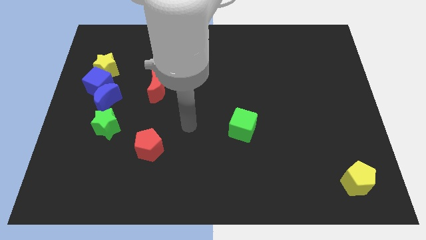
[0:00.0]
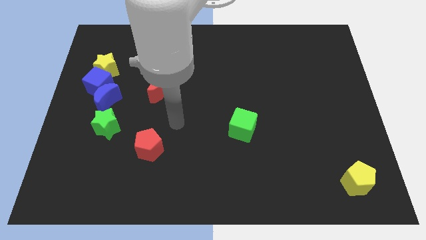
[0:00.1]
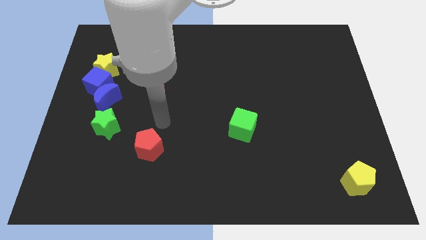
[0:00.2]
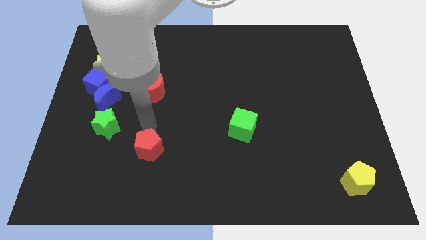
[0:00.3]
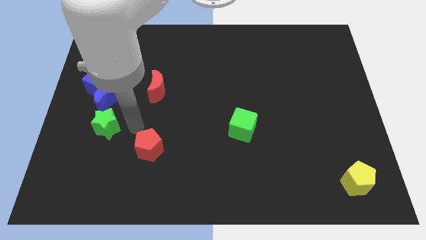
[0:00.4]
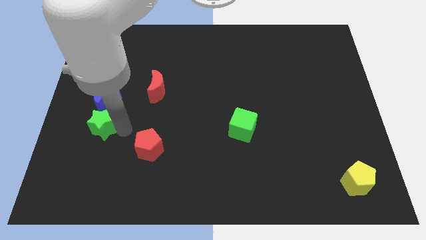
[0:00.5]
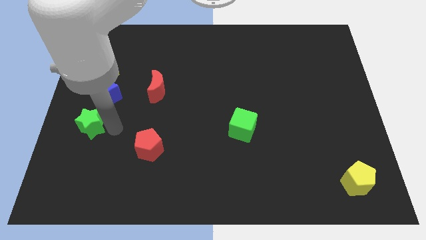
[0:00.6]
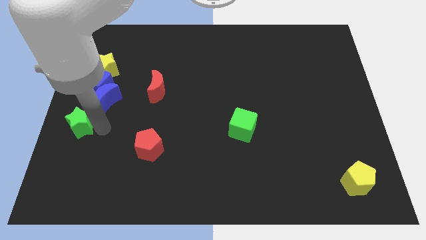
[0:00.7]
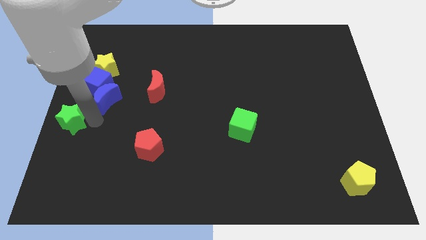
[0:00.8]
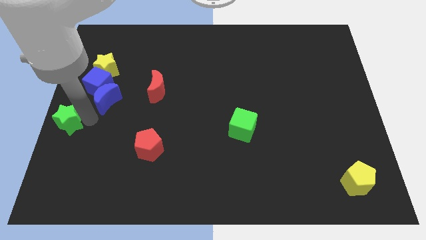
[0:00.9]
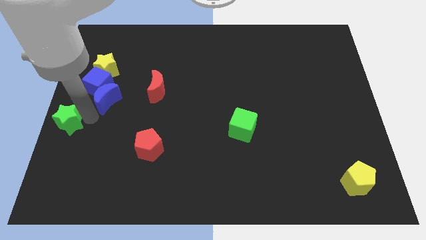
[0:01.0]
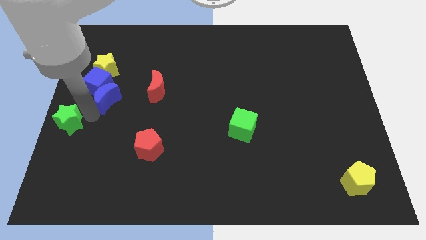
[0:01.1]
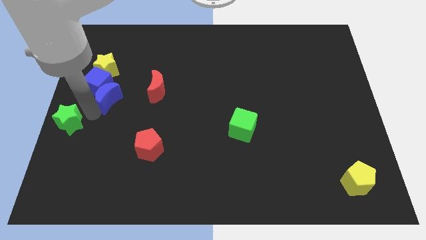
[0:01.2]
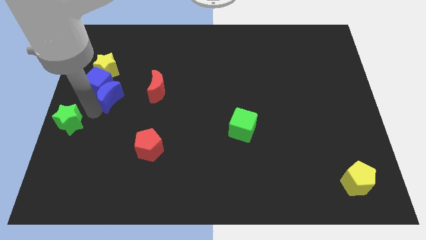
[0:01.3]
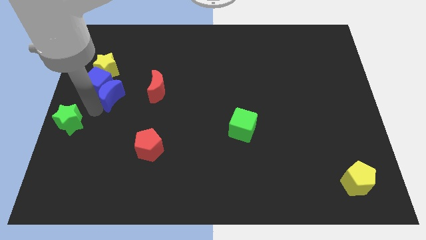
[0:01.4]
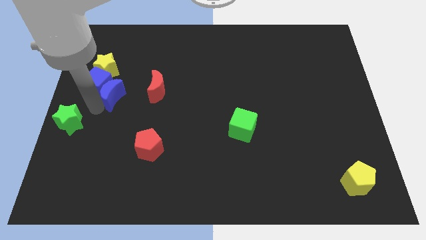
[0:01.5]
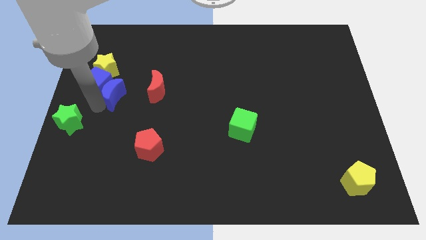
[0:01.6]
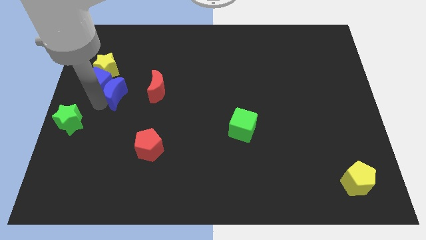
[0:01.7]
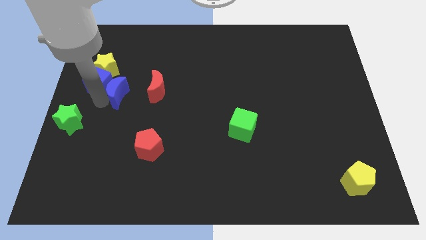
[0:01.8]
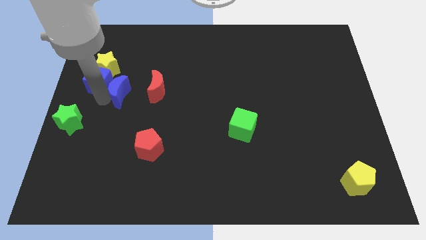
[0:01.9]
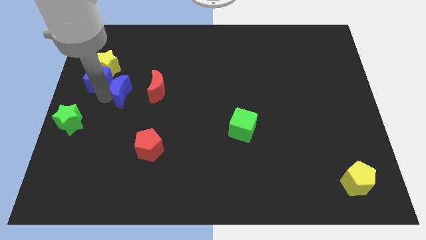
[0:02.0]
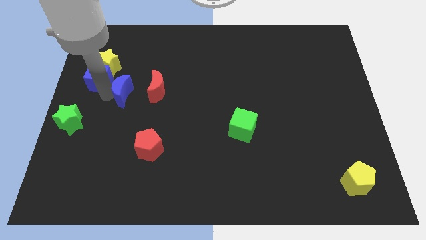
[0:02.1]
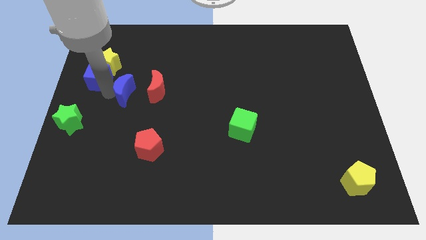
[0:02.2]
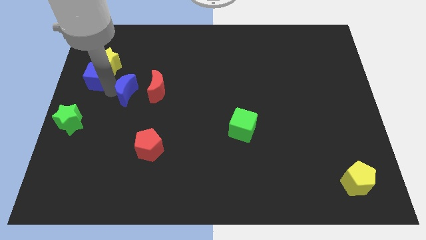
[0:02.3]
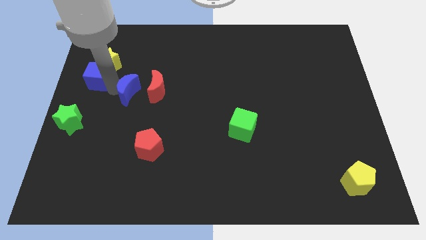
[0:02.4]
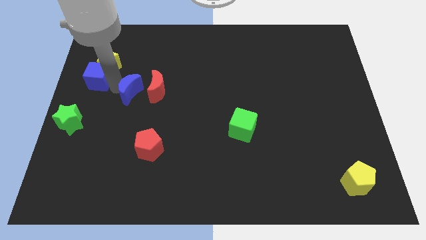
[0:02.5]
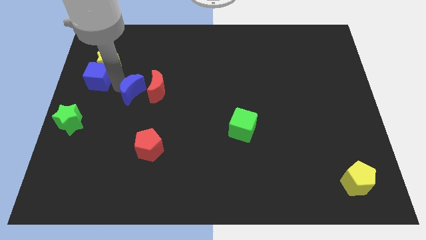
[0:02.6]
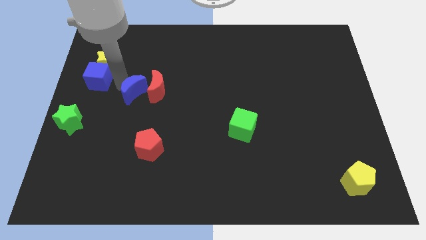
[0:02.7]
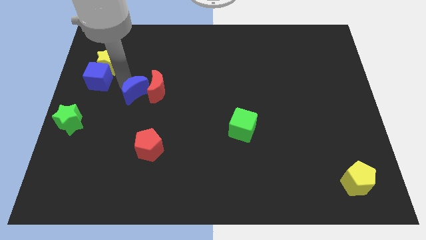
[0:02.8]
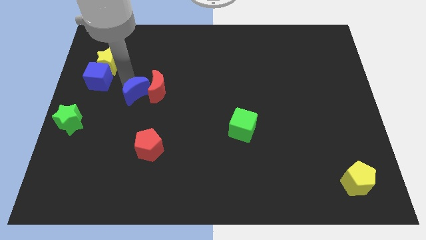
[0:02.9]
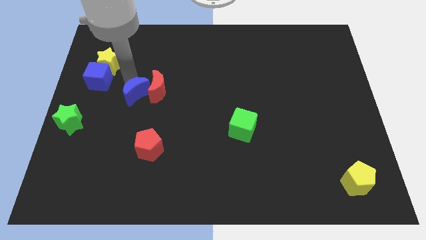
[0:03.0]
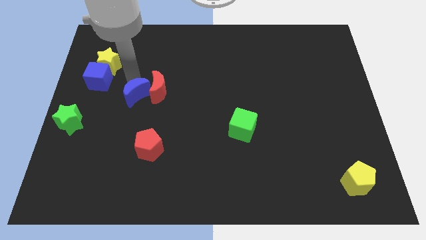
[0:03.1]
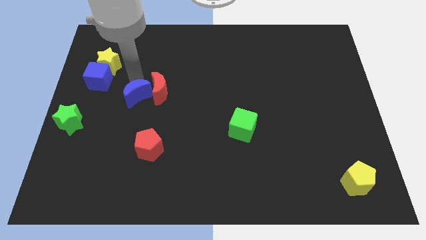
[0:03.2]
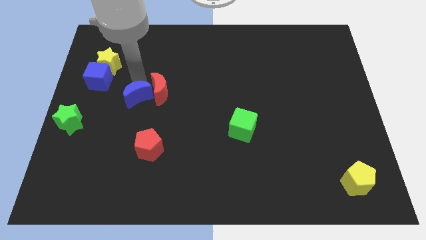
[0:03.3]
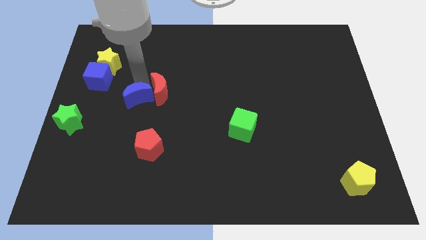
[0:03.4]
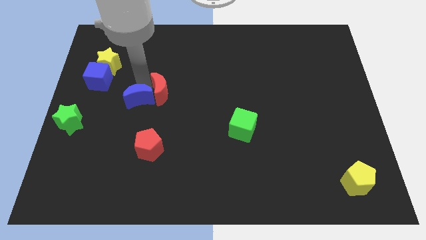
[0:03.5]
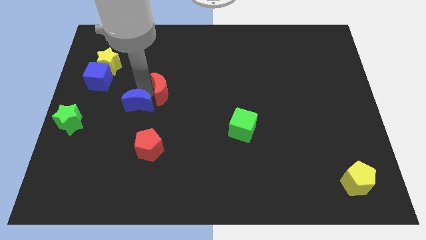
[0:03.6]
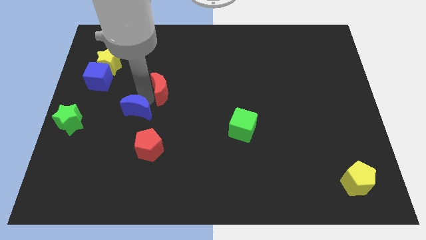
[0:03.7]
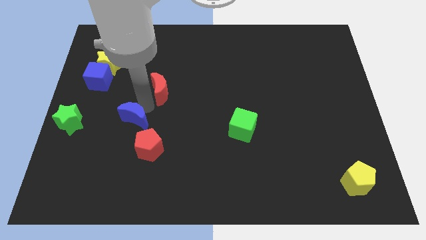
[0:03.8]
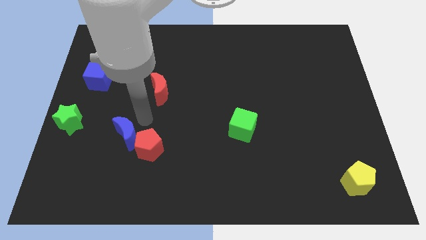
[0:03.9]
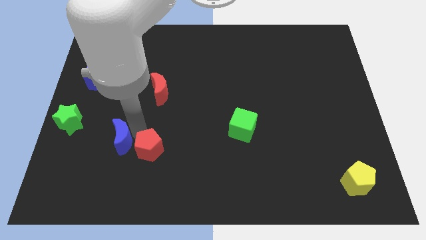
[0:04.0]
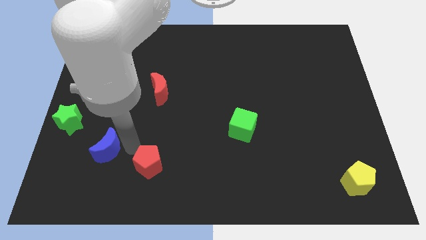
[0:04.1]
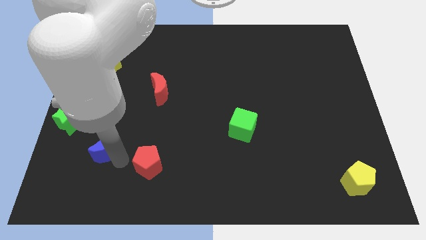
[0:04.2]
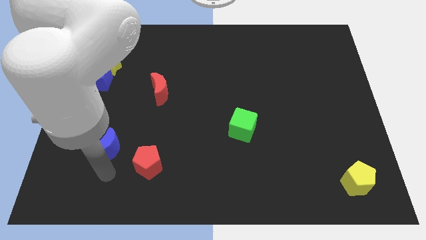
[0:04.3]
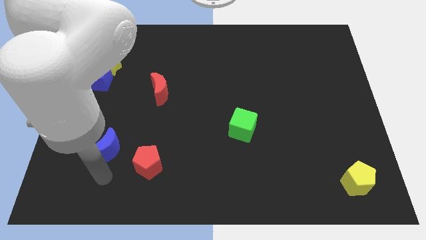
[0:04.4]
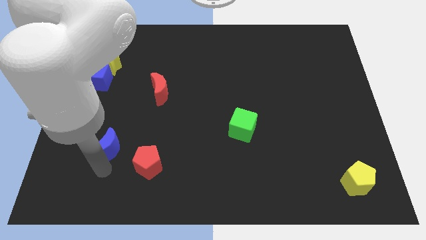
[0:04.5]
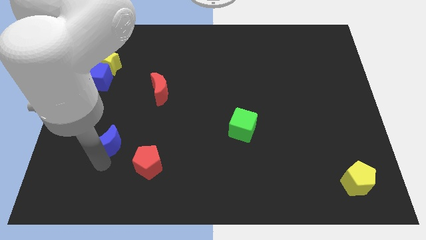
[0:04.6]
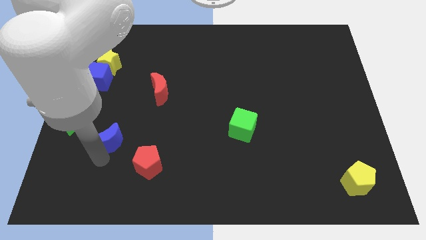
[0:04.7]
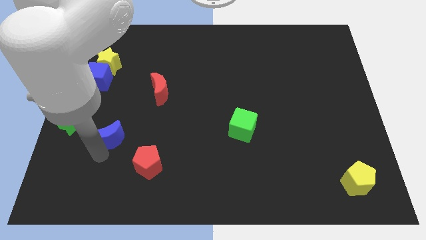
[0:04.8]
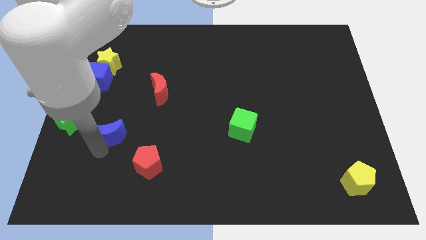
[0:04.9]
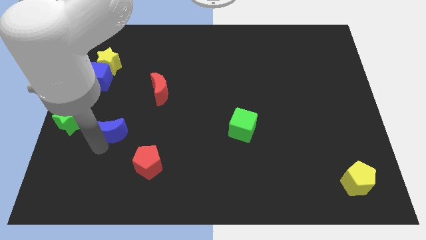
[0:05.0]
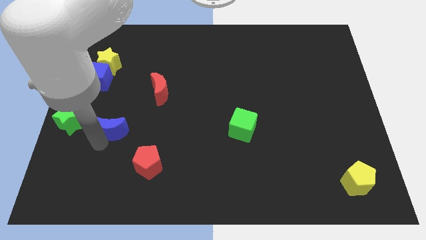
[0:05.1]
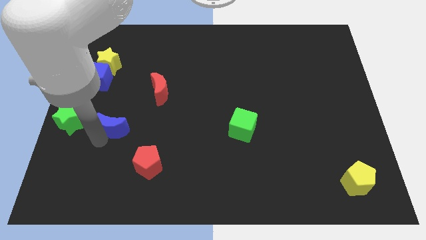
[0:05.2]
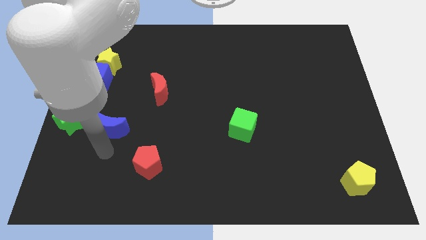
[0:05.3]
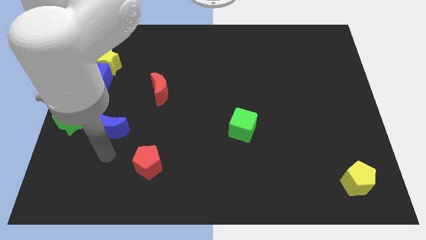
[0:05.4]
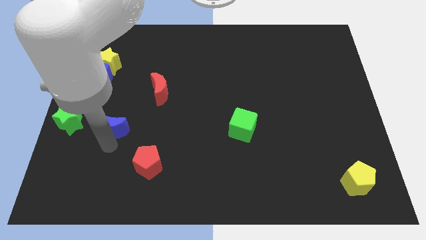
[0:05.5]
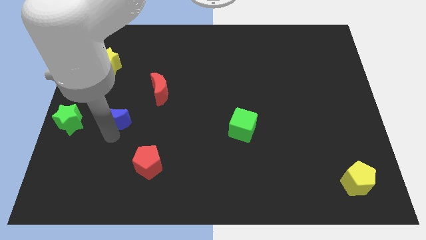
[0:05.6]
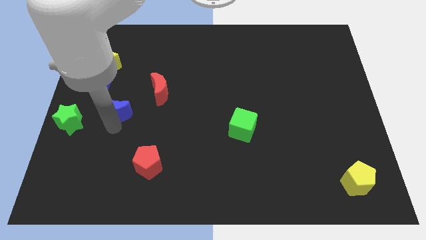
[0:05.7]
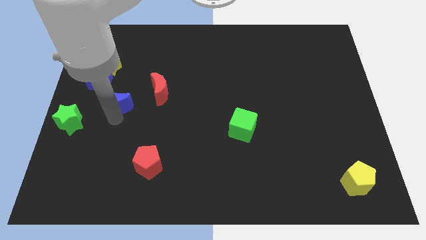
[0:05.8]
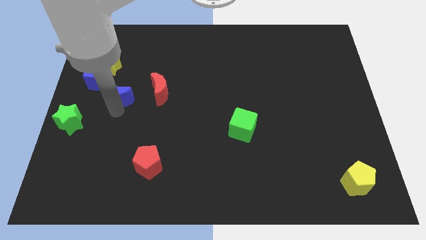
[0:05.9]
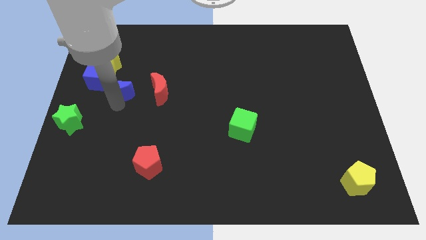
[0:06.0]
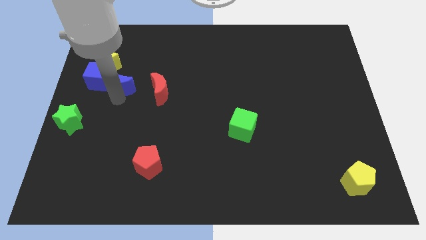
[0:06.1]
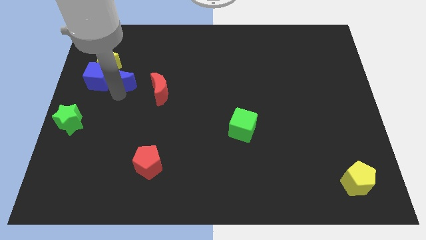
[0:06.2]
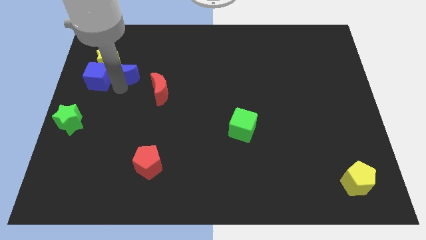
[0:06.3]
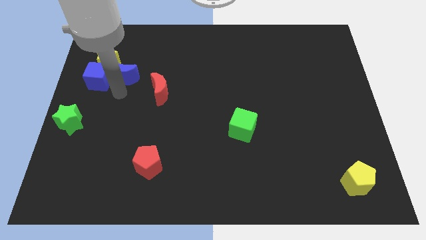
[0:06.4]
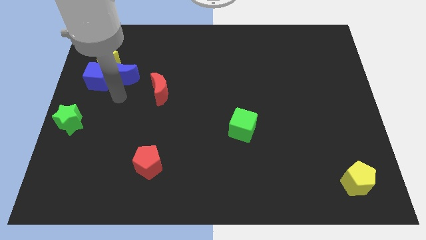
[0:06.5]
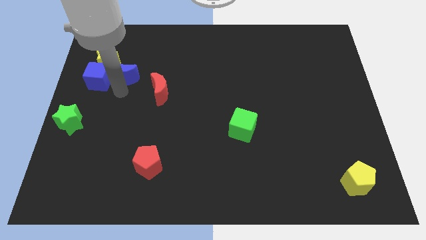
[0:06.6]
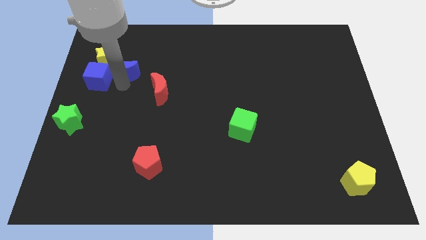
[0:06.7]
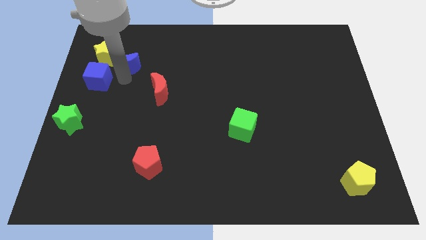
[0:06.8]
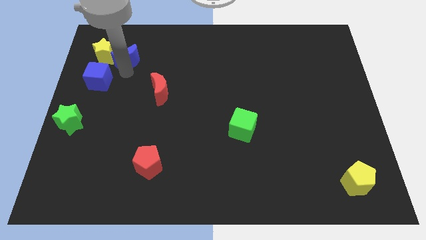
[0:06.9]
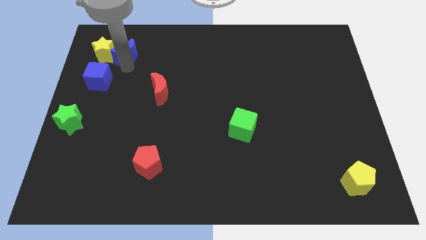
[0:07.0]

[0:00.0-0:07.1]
put the blue moon to the top right of the yellow star
